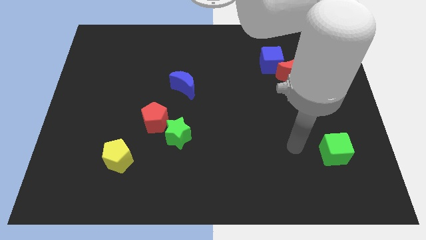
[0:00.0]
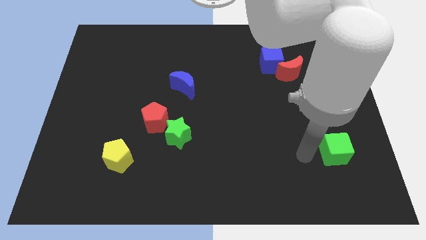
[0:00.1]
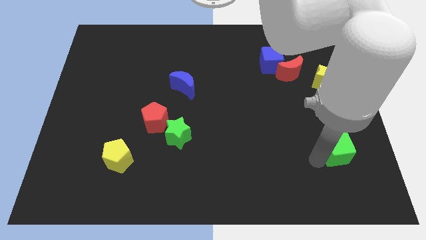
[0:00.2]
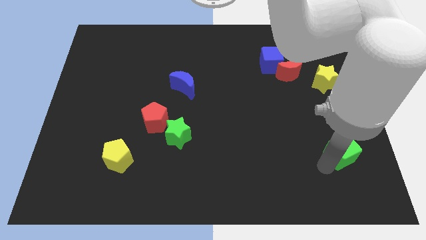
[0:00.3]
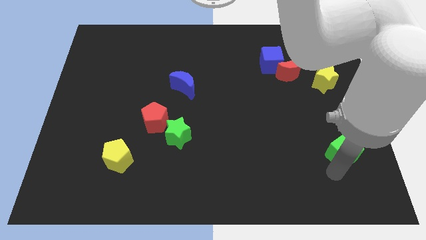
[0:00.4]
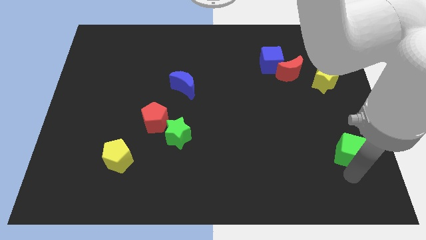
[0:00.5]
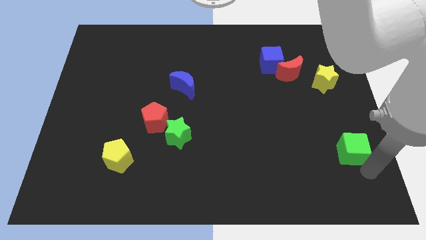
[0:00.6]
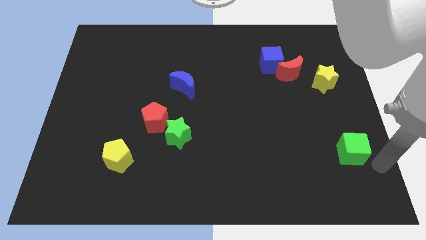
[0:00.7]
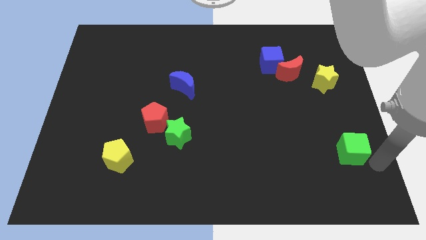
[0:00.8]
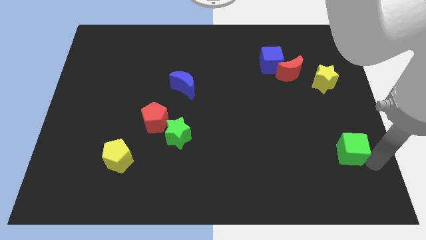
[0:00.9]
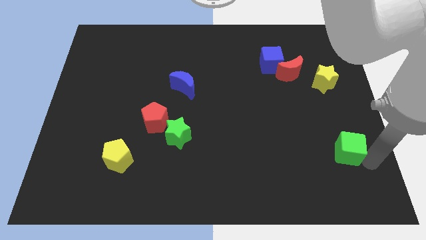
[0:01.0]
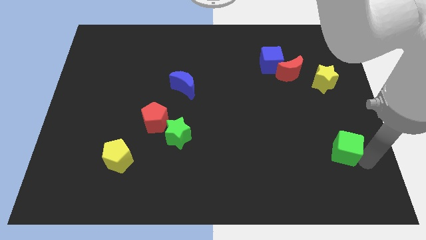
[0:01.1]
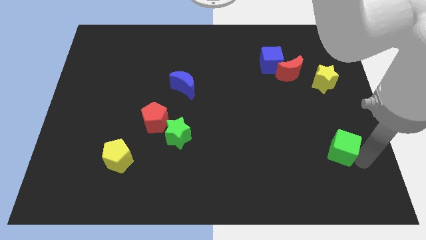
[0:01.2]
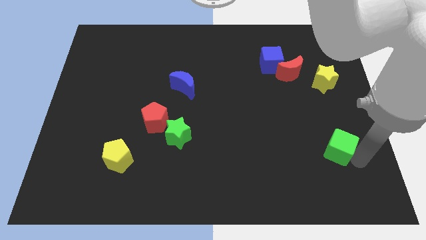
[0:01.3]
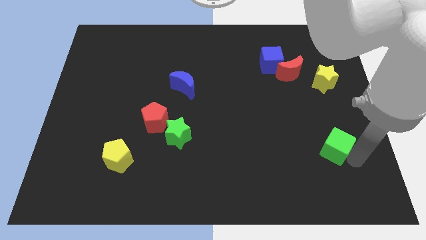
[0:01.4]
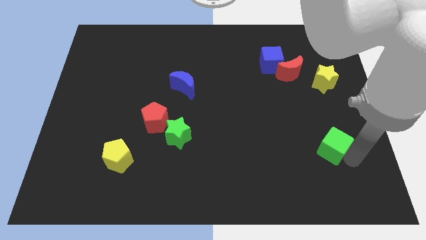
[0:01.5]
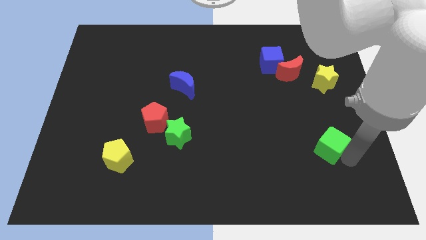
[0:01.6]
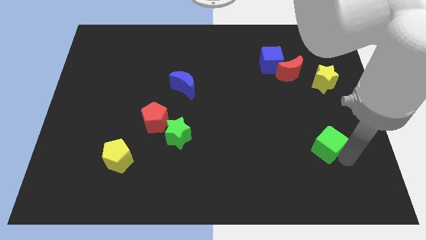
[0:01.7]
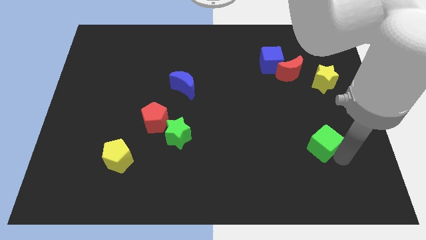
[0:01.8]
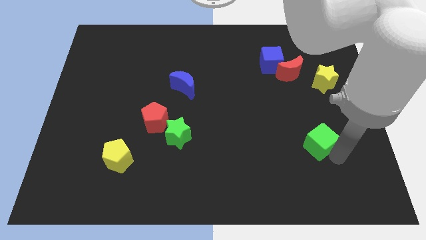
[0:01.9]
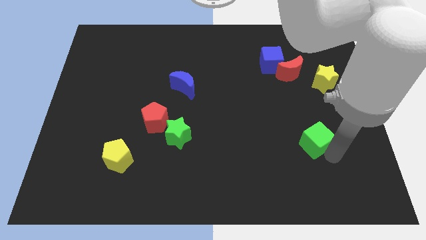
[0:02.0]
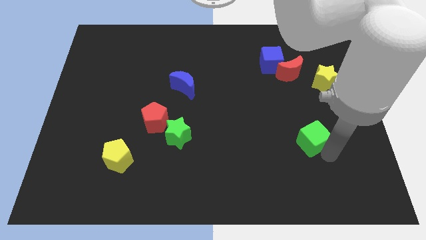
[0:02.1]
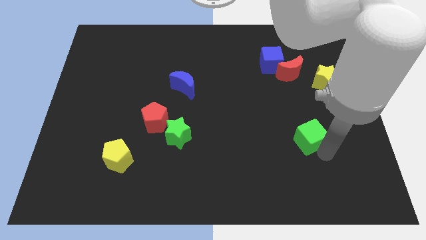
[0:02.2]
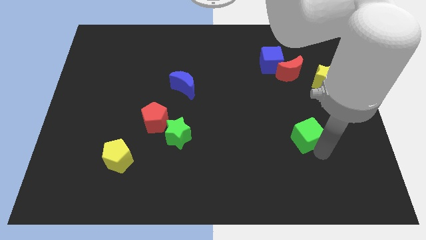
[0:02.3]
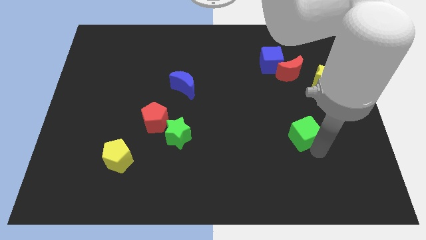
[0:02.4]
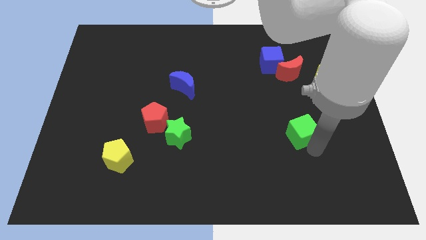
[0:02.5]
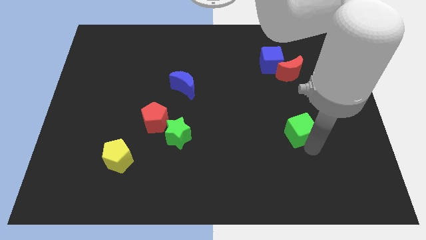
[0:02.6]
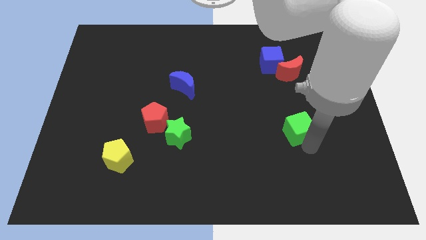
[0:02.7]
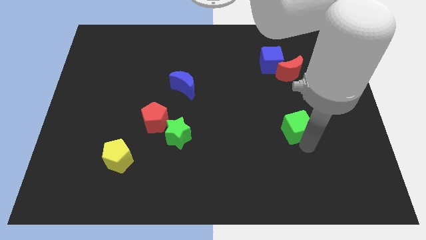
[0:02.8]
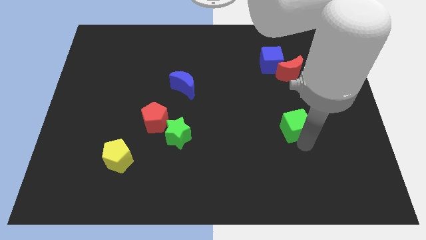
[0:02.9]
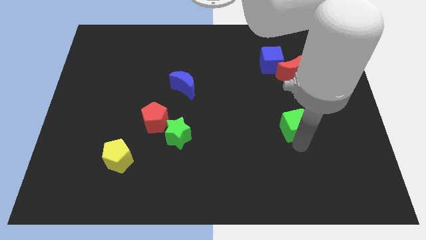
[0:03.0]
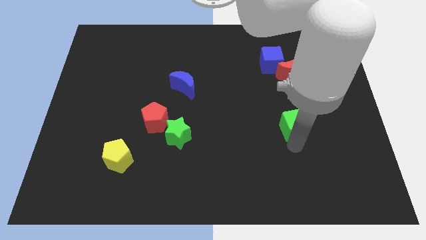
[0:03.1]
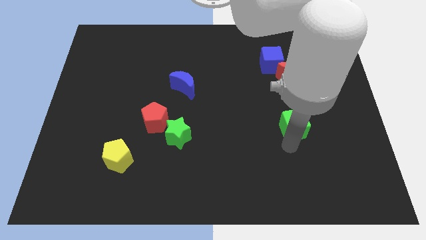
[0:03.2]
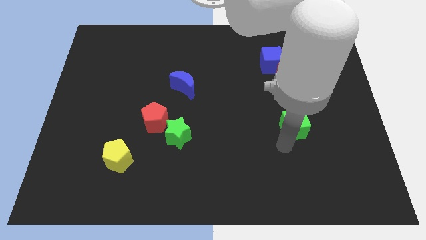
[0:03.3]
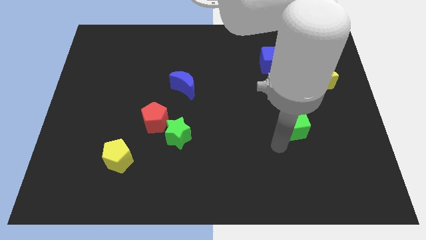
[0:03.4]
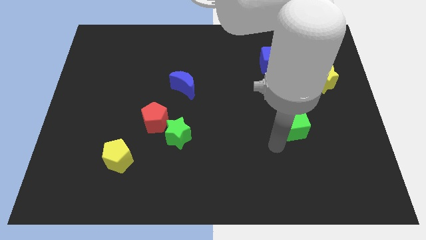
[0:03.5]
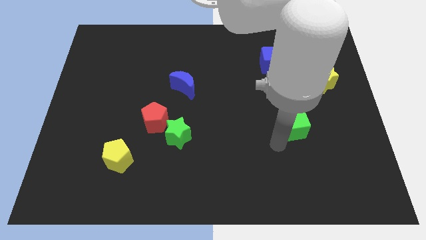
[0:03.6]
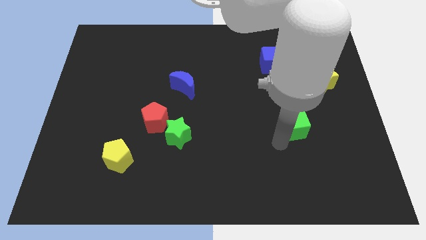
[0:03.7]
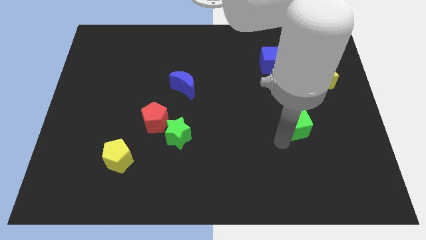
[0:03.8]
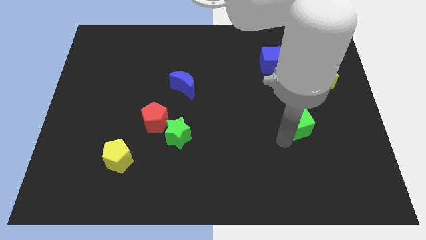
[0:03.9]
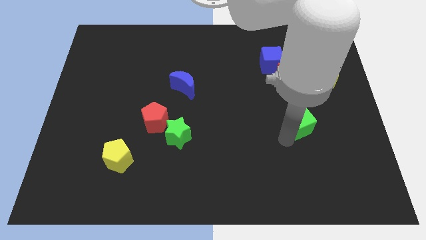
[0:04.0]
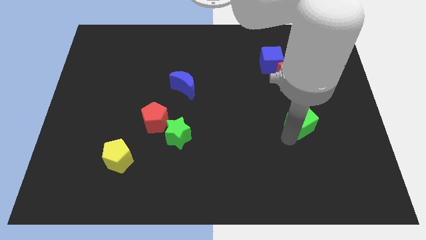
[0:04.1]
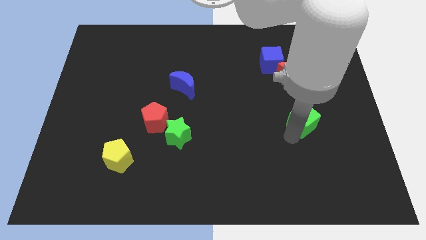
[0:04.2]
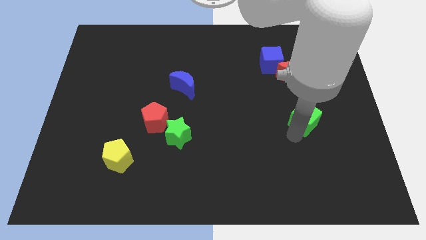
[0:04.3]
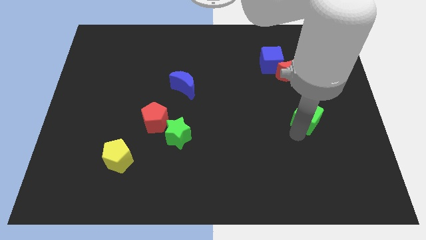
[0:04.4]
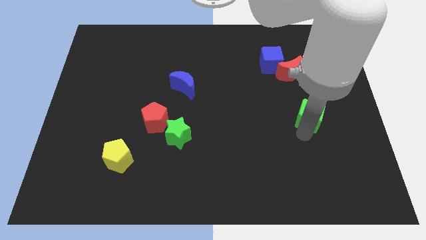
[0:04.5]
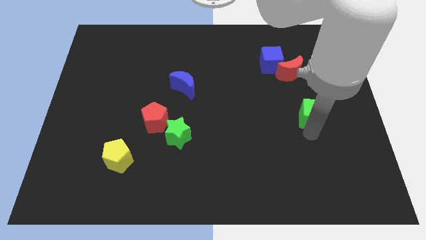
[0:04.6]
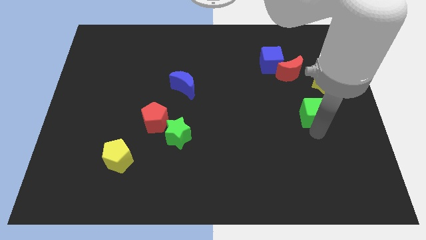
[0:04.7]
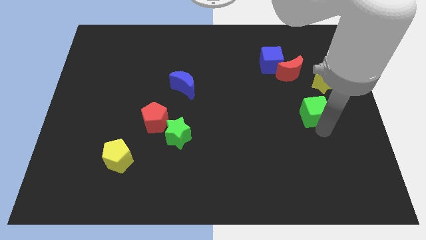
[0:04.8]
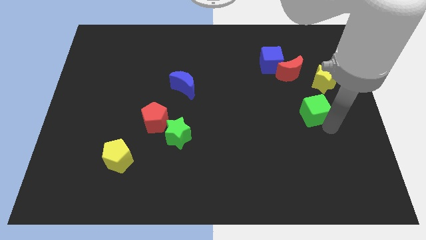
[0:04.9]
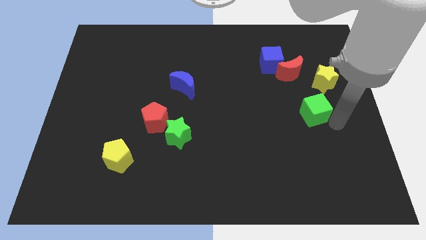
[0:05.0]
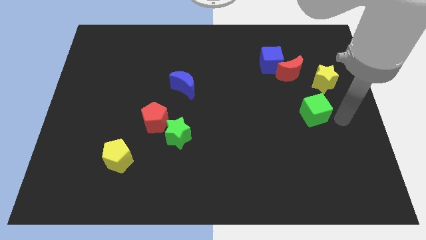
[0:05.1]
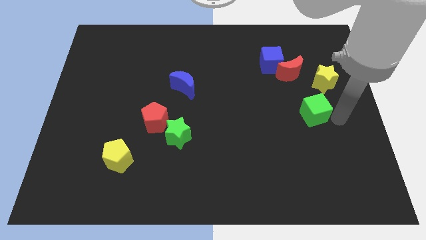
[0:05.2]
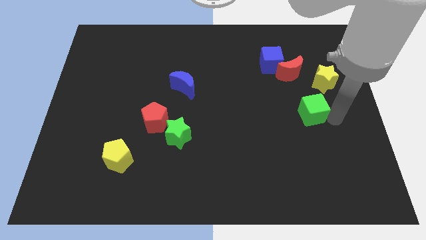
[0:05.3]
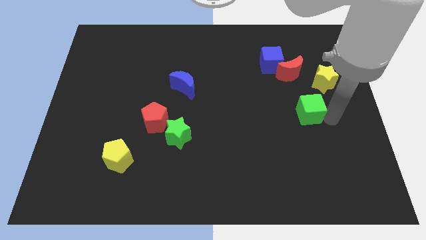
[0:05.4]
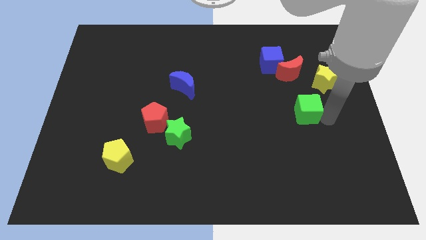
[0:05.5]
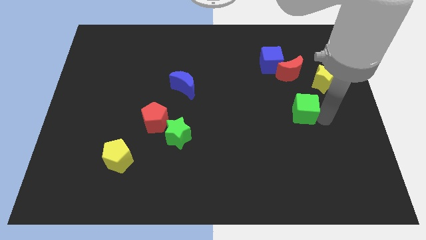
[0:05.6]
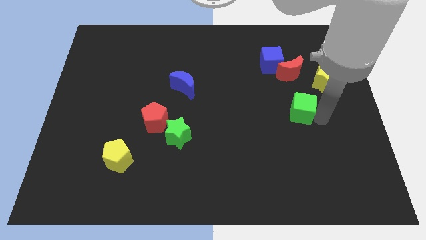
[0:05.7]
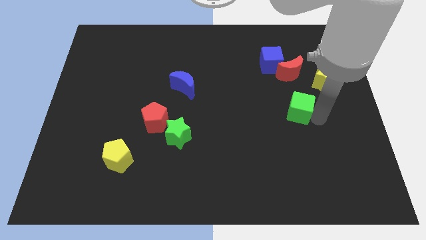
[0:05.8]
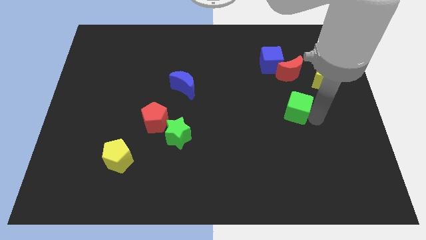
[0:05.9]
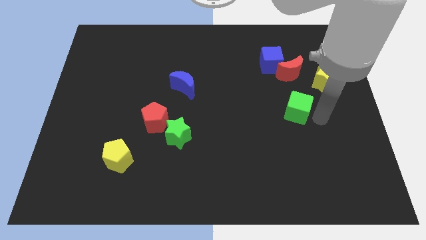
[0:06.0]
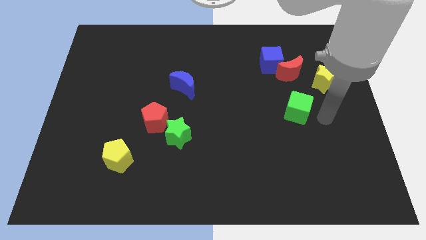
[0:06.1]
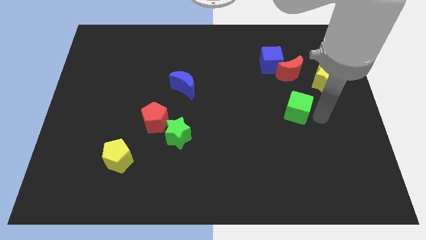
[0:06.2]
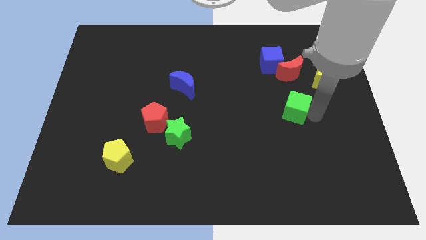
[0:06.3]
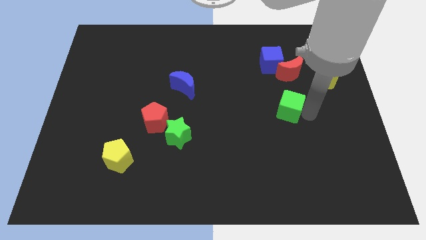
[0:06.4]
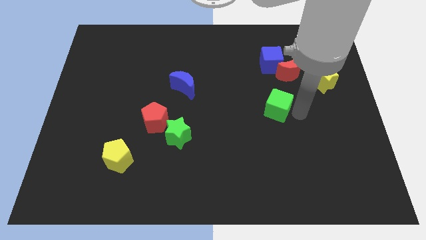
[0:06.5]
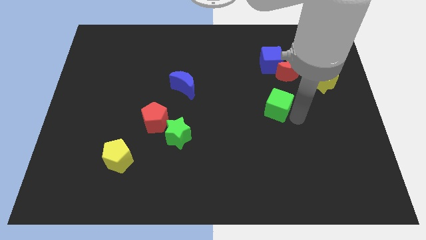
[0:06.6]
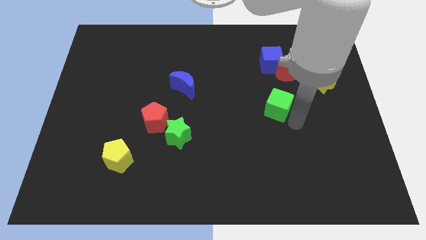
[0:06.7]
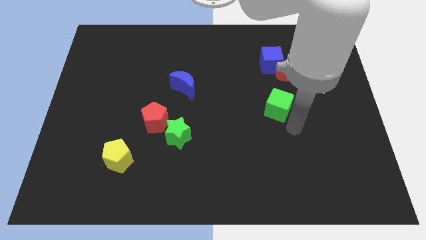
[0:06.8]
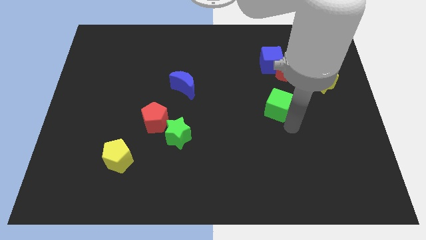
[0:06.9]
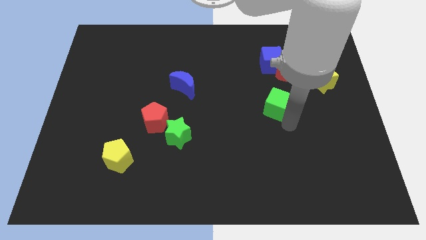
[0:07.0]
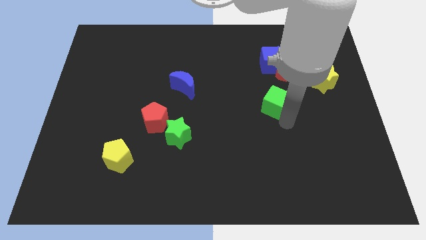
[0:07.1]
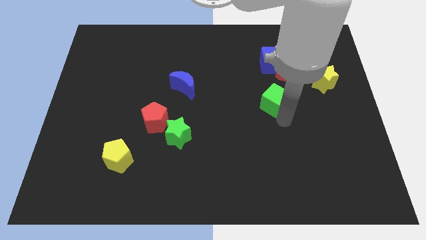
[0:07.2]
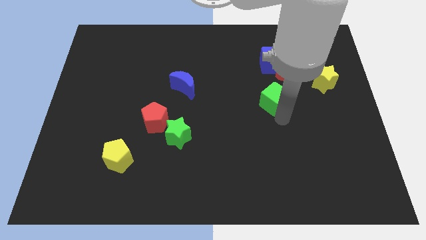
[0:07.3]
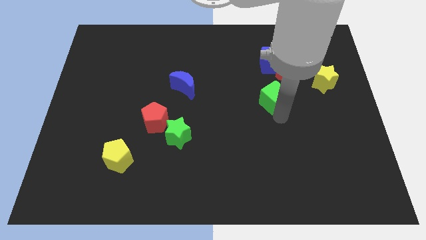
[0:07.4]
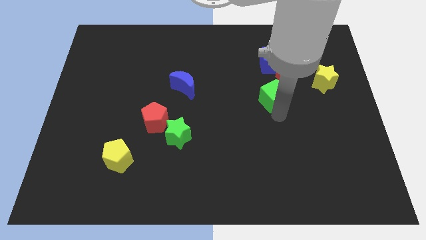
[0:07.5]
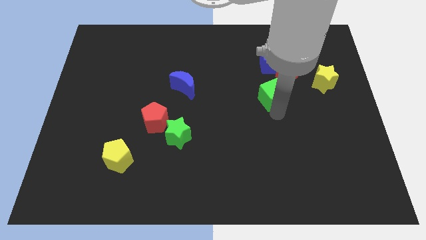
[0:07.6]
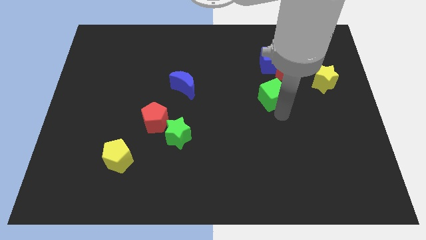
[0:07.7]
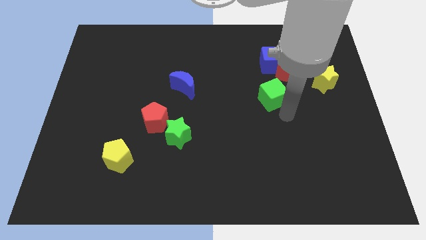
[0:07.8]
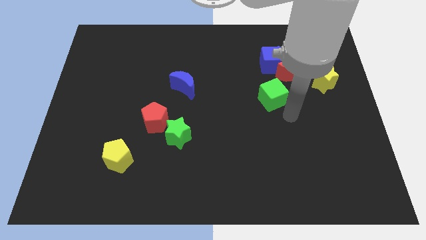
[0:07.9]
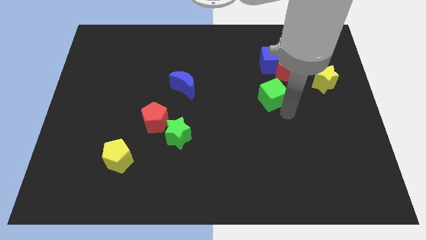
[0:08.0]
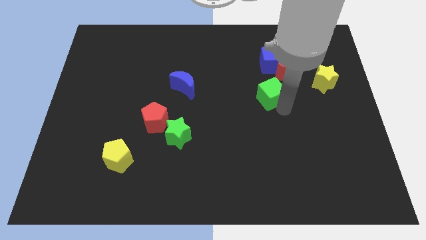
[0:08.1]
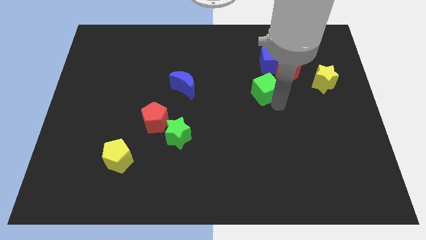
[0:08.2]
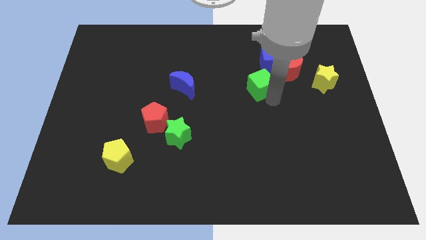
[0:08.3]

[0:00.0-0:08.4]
push the green cube to the bottom left of the blue cube
